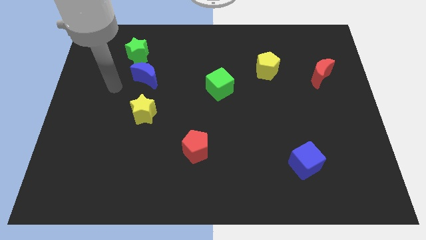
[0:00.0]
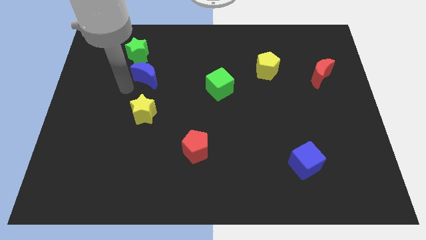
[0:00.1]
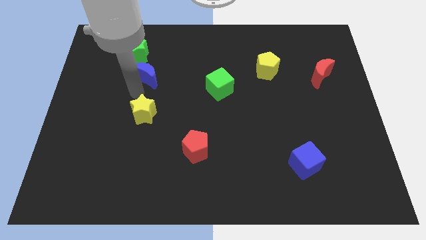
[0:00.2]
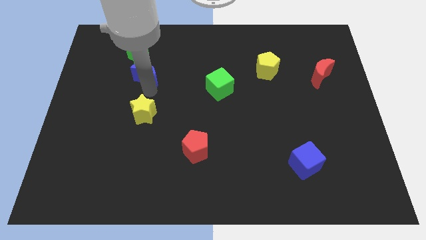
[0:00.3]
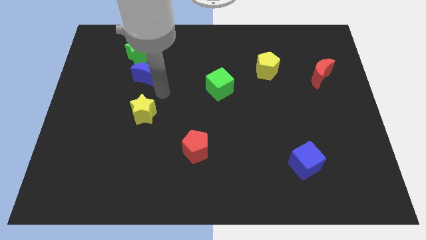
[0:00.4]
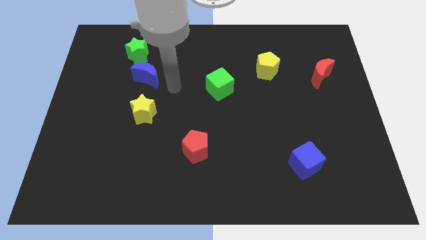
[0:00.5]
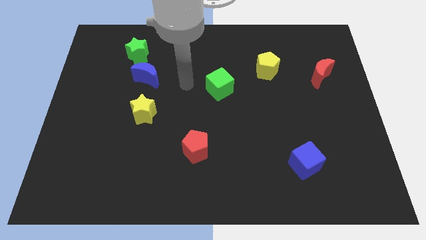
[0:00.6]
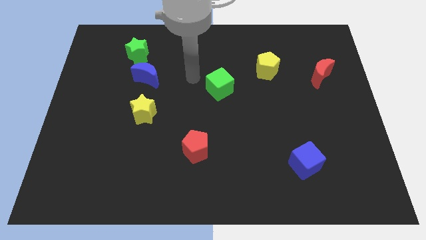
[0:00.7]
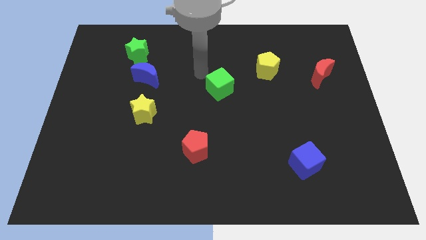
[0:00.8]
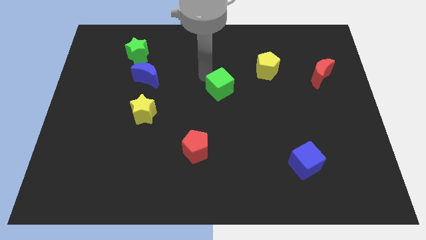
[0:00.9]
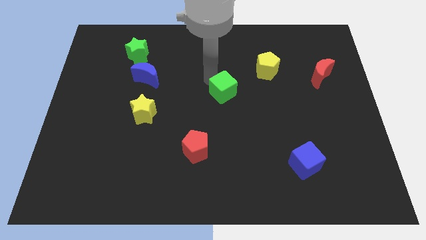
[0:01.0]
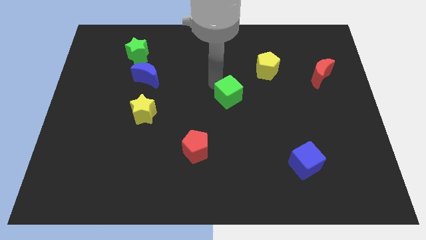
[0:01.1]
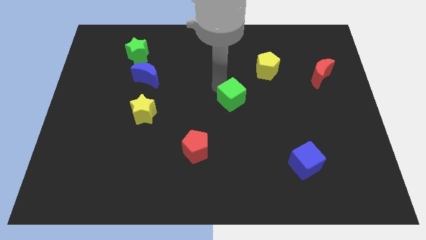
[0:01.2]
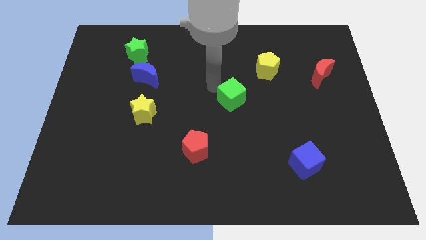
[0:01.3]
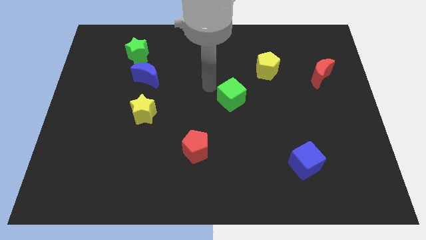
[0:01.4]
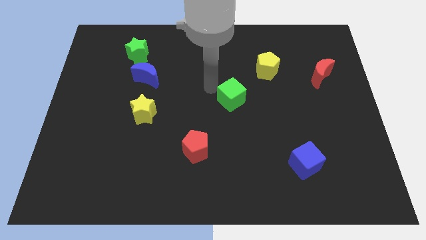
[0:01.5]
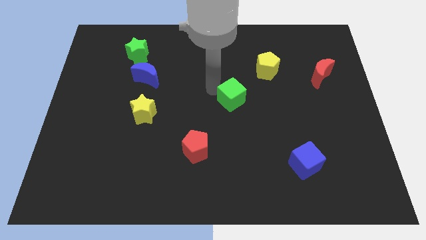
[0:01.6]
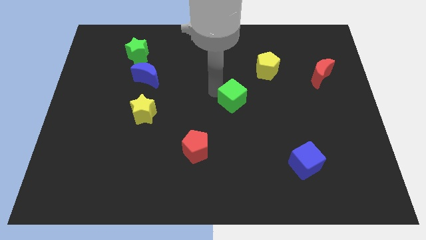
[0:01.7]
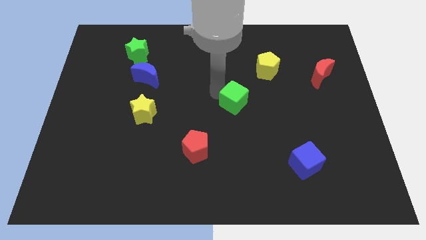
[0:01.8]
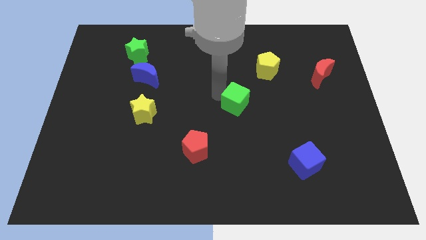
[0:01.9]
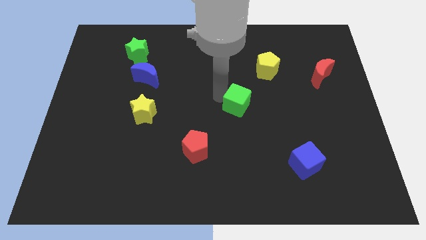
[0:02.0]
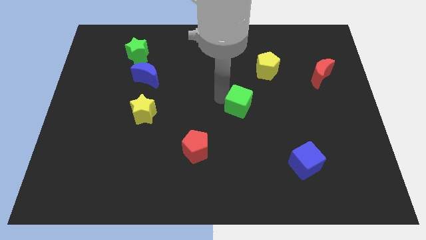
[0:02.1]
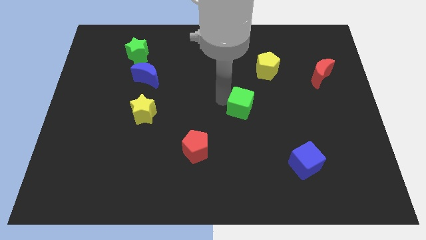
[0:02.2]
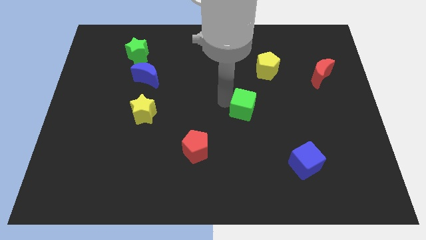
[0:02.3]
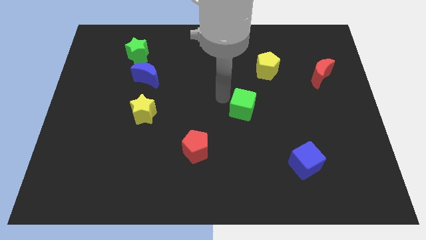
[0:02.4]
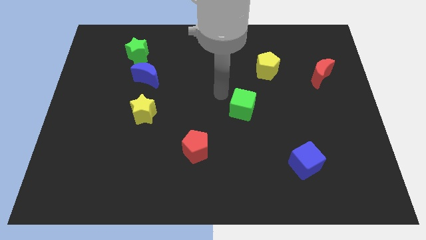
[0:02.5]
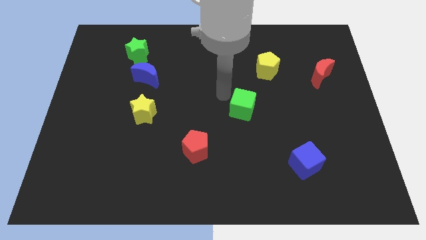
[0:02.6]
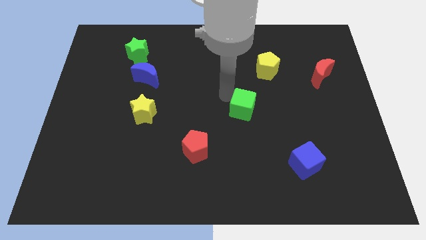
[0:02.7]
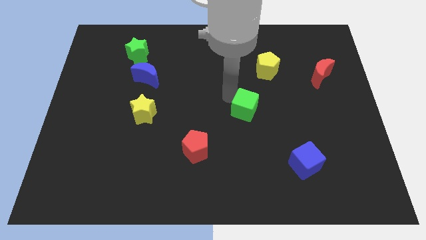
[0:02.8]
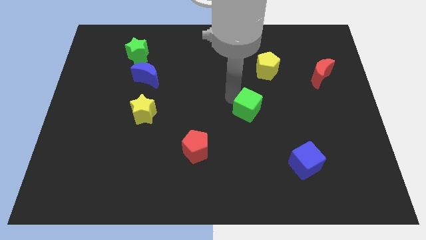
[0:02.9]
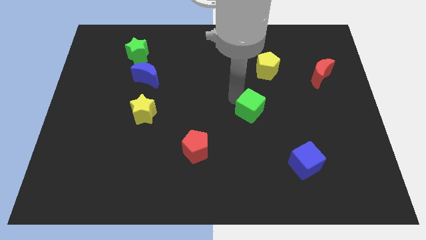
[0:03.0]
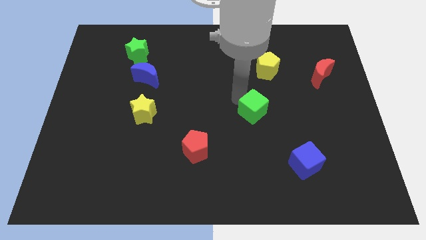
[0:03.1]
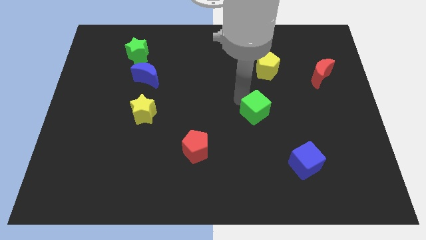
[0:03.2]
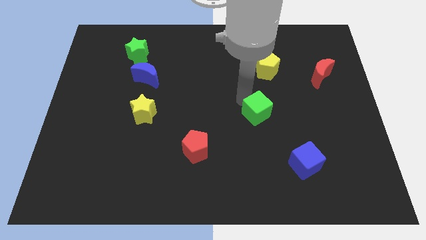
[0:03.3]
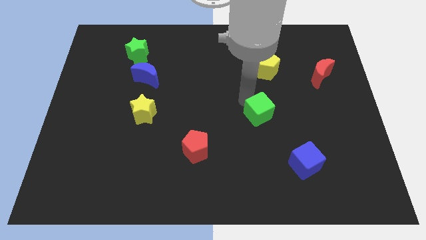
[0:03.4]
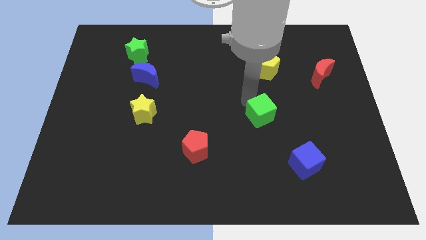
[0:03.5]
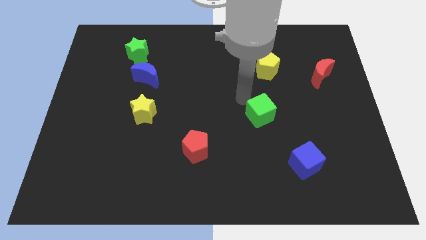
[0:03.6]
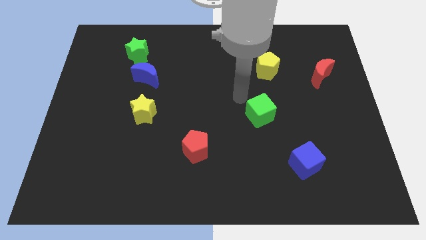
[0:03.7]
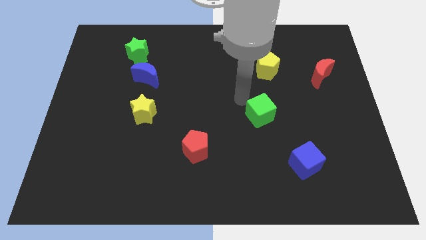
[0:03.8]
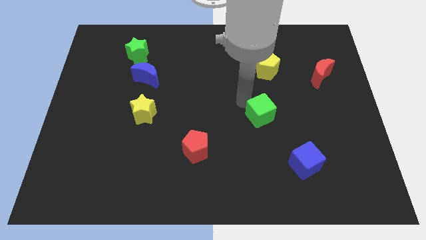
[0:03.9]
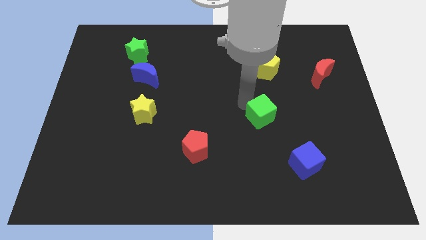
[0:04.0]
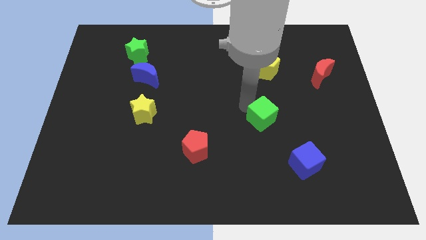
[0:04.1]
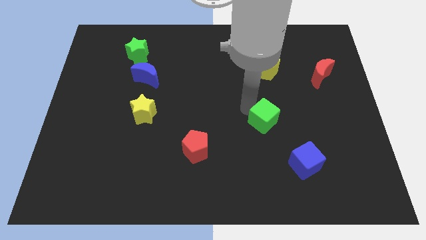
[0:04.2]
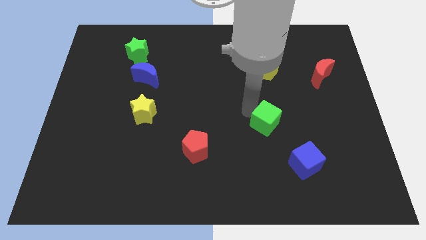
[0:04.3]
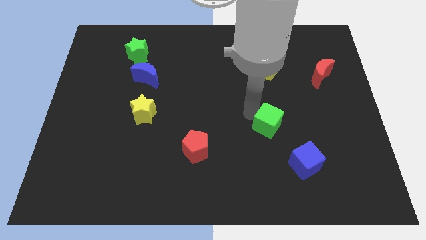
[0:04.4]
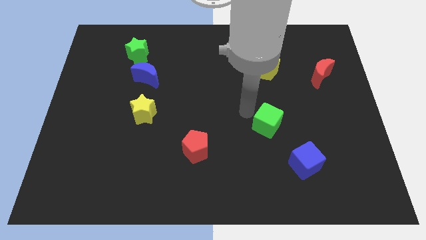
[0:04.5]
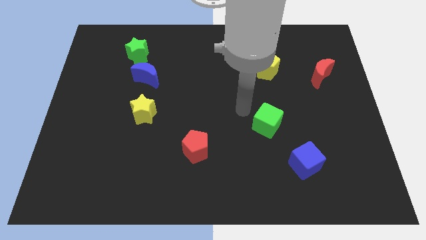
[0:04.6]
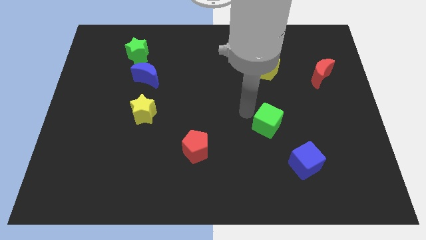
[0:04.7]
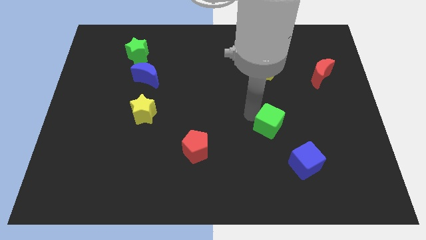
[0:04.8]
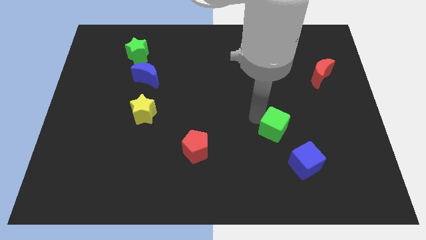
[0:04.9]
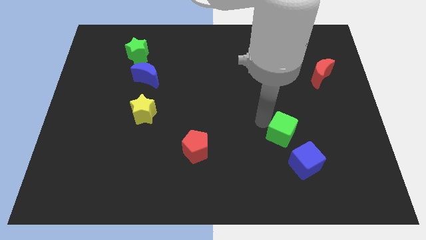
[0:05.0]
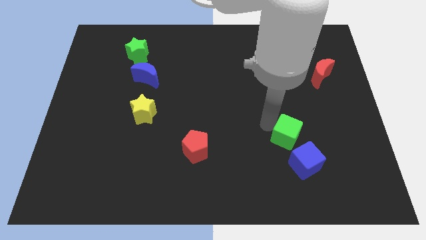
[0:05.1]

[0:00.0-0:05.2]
slide the green cube down and then right

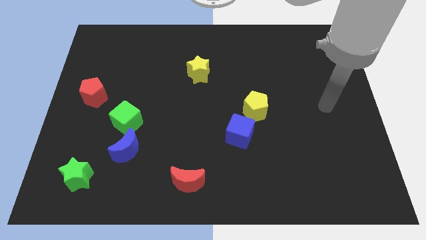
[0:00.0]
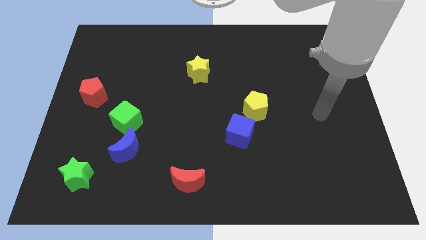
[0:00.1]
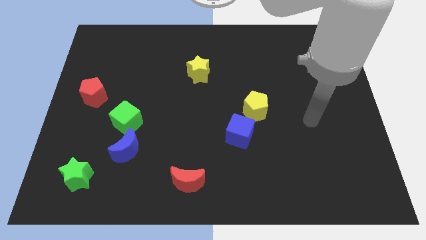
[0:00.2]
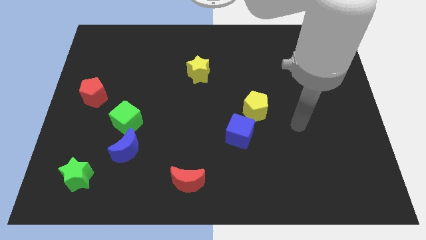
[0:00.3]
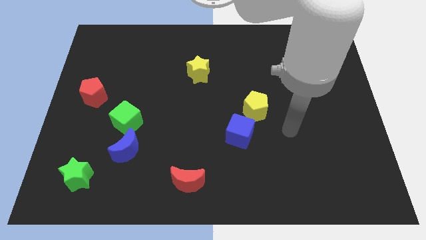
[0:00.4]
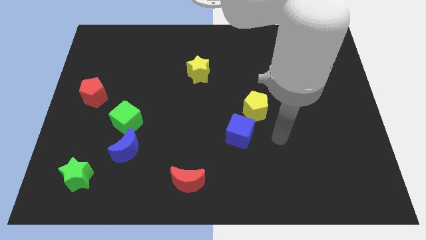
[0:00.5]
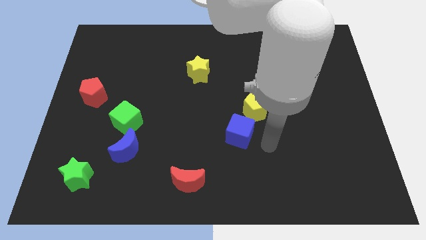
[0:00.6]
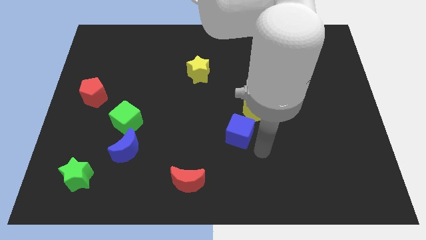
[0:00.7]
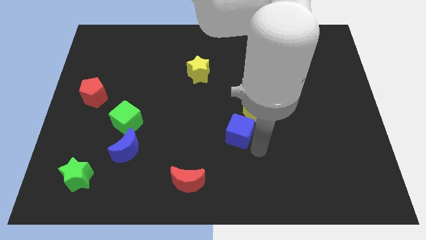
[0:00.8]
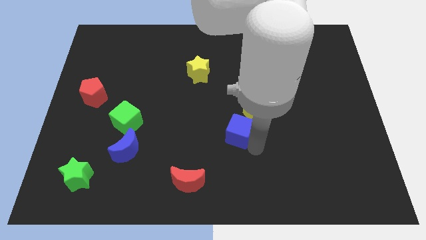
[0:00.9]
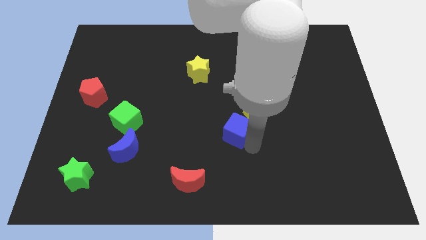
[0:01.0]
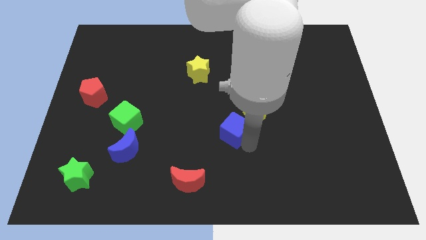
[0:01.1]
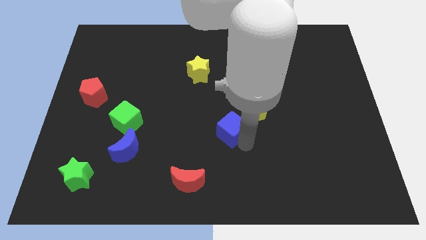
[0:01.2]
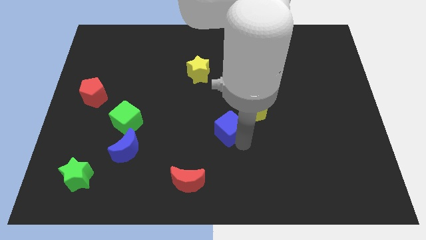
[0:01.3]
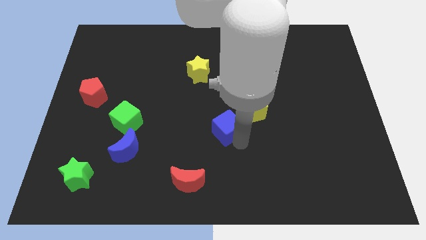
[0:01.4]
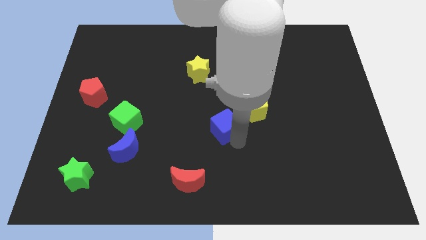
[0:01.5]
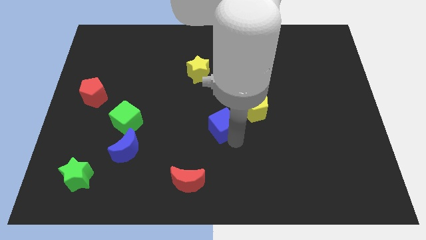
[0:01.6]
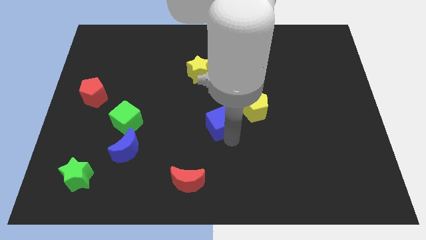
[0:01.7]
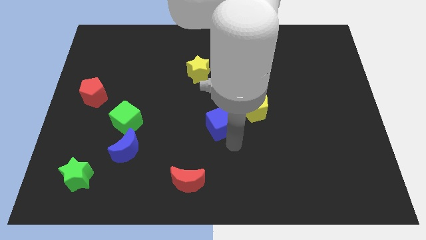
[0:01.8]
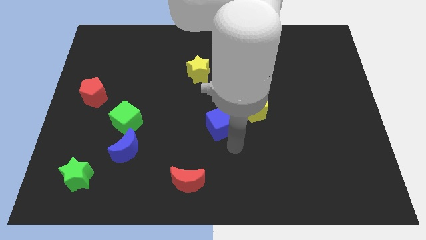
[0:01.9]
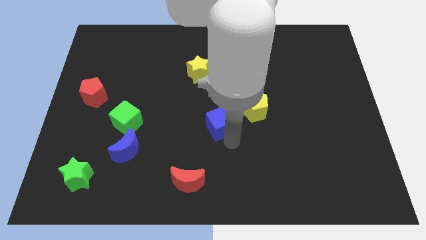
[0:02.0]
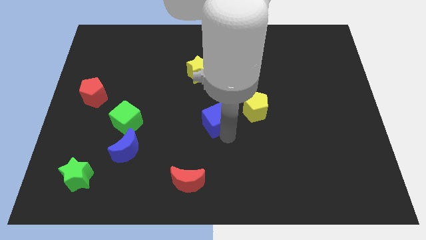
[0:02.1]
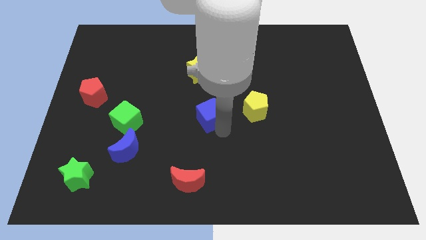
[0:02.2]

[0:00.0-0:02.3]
move the blue cube a bit upwards and left

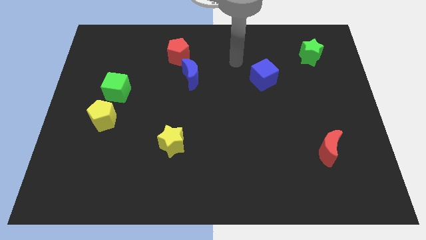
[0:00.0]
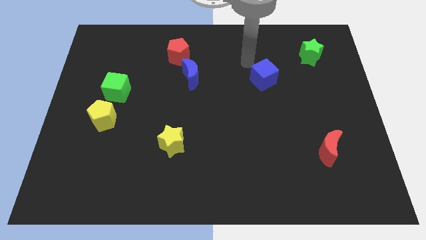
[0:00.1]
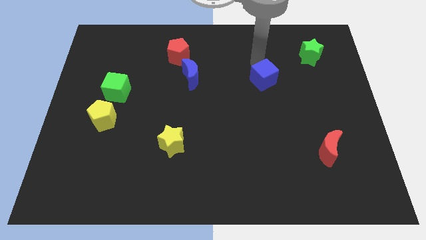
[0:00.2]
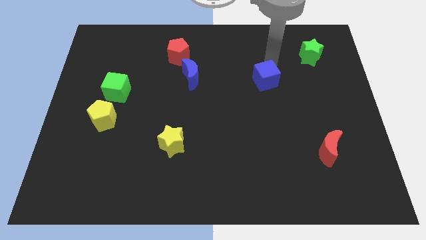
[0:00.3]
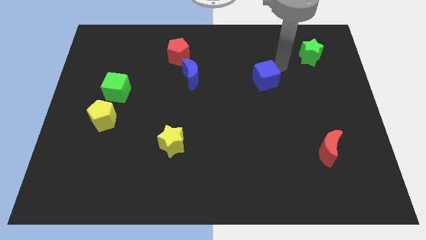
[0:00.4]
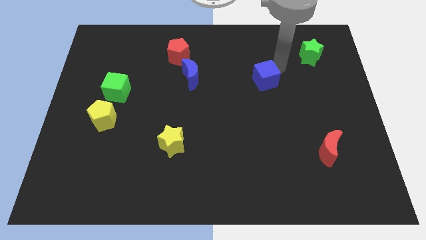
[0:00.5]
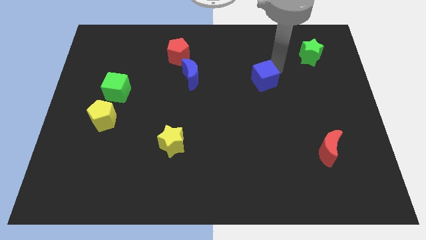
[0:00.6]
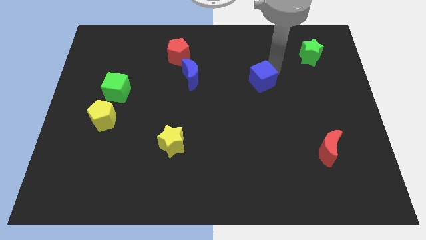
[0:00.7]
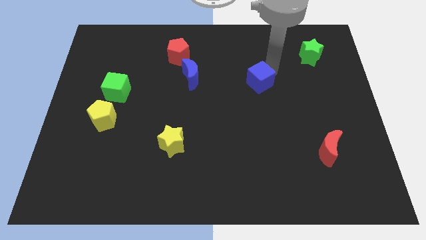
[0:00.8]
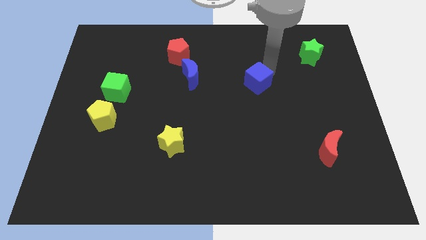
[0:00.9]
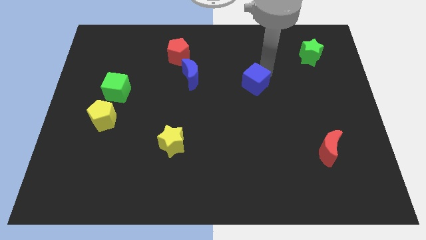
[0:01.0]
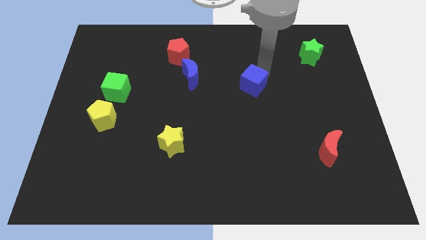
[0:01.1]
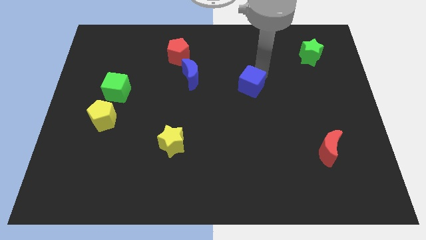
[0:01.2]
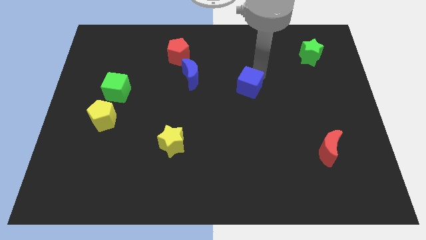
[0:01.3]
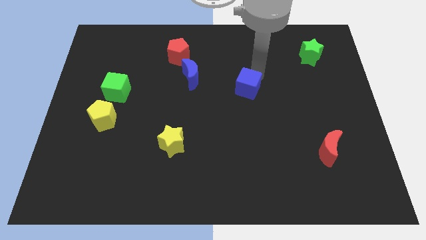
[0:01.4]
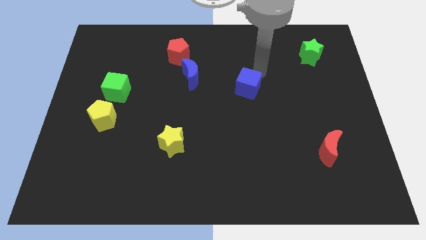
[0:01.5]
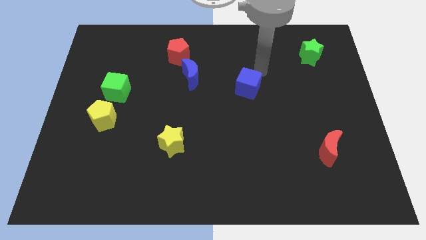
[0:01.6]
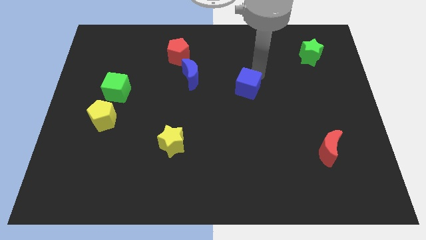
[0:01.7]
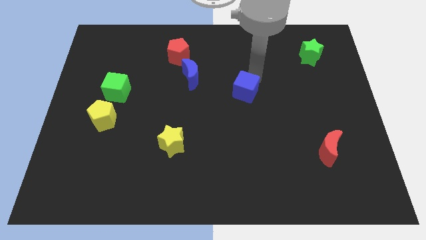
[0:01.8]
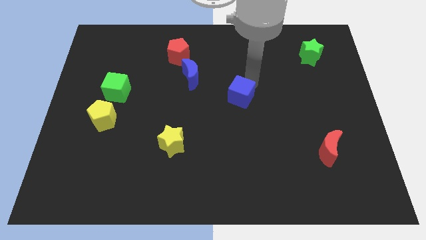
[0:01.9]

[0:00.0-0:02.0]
push the blue cube down and then left a little bit
